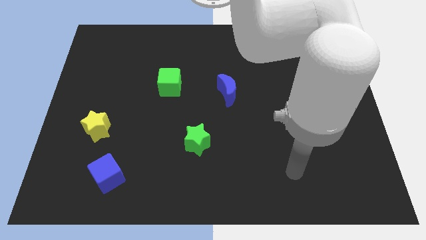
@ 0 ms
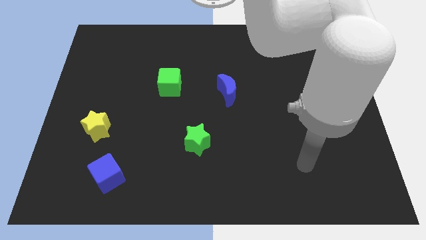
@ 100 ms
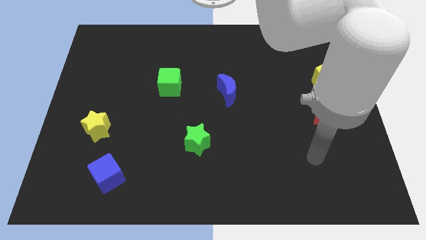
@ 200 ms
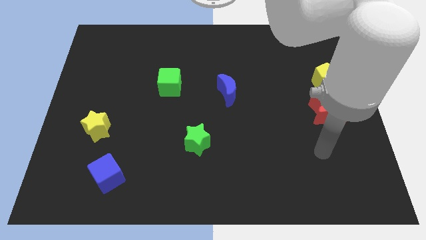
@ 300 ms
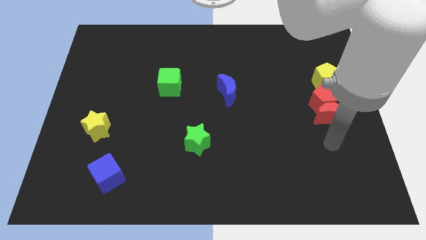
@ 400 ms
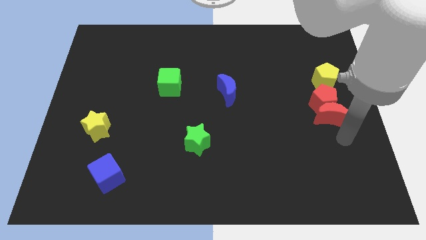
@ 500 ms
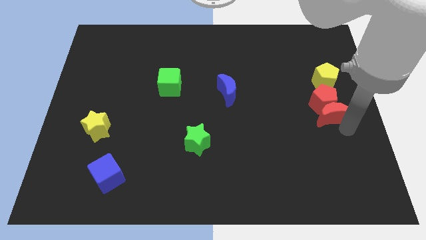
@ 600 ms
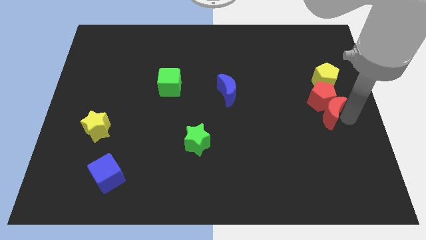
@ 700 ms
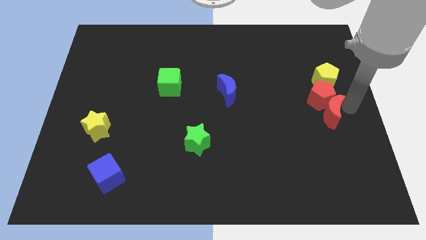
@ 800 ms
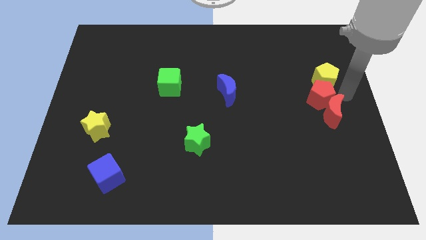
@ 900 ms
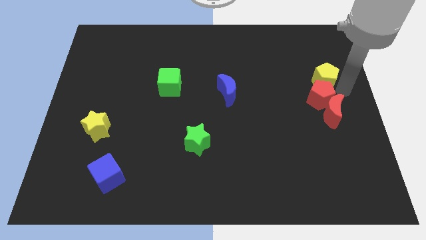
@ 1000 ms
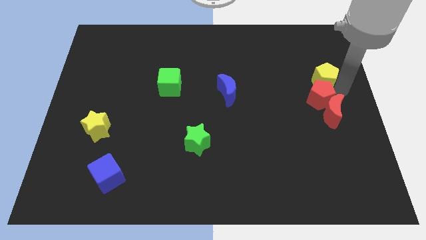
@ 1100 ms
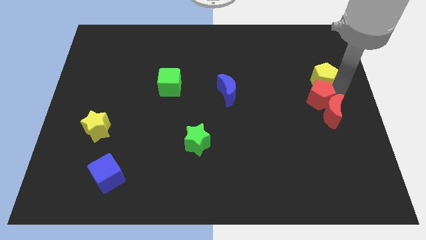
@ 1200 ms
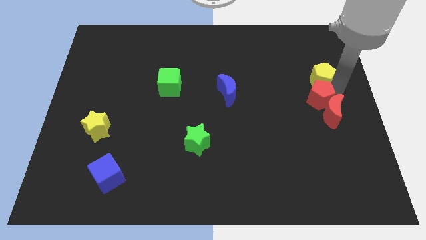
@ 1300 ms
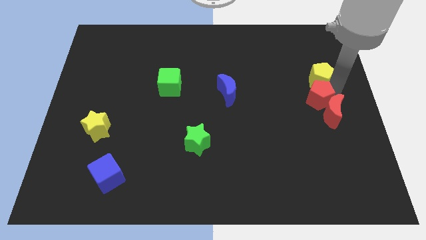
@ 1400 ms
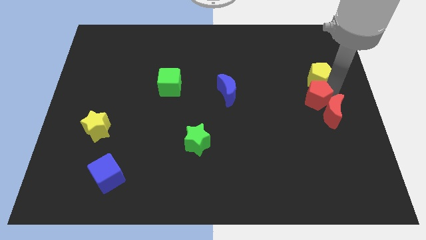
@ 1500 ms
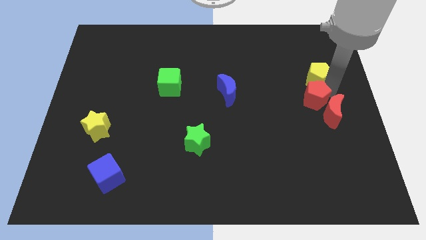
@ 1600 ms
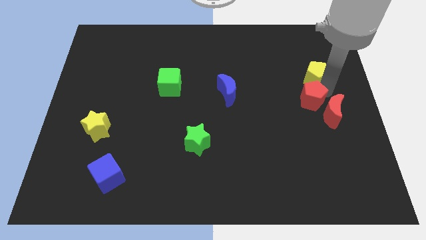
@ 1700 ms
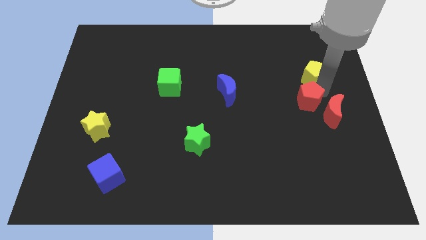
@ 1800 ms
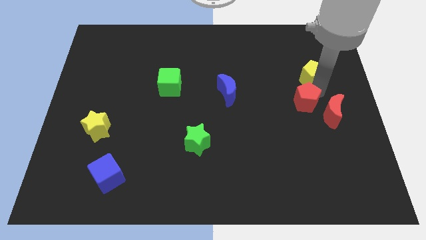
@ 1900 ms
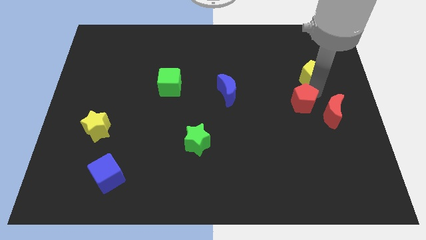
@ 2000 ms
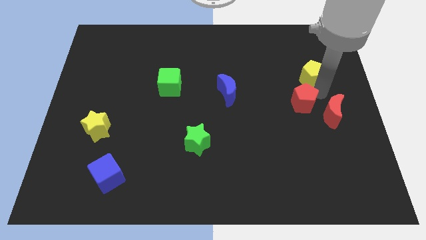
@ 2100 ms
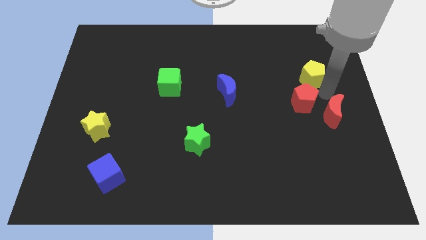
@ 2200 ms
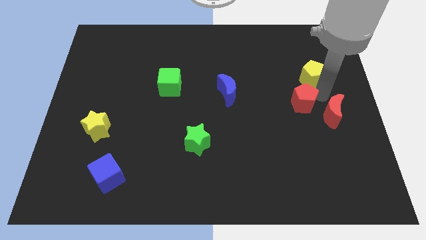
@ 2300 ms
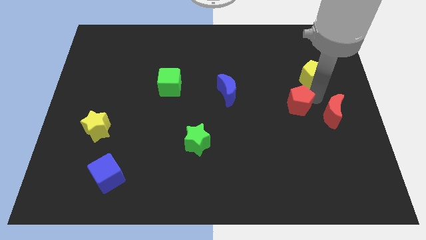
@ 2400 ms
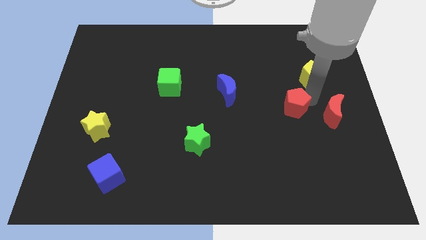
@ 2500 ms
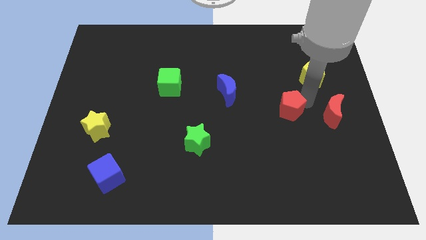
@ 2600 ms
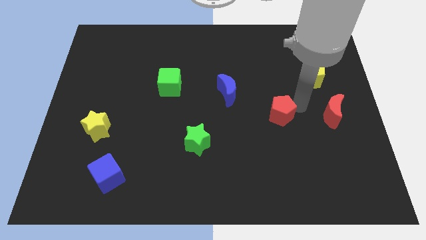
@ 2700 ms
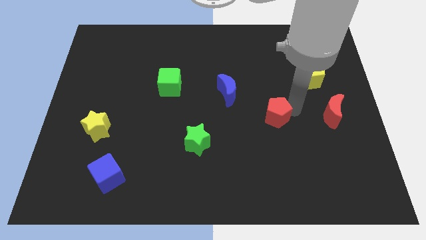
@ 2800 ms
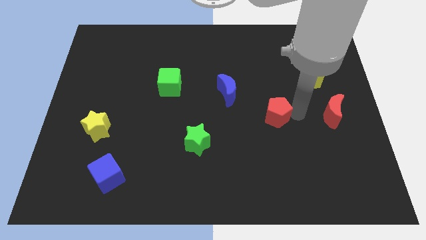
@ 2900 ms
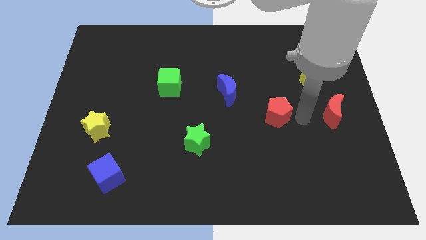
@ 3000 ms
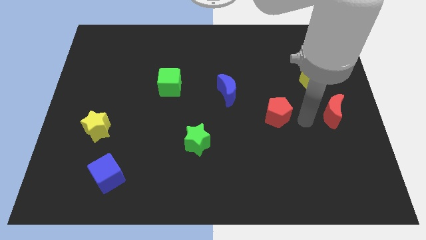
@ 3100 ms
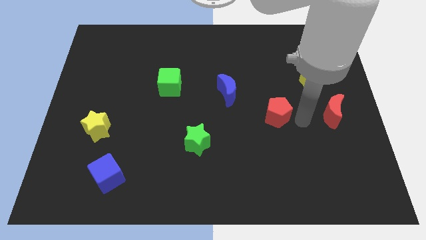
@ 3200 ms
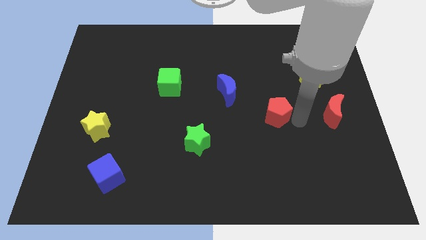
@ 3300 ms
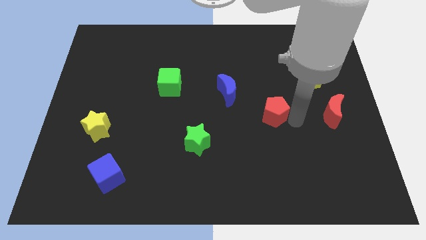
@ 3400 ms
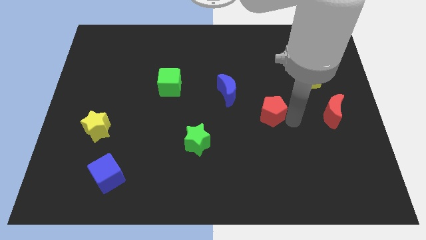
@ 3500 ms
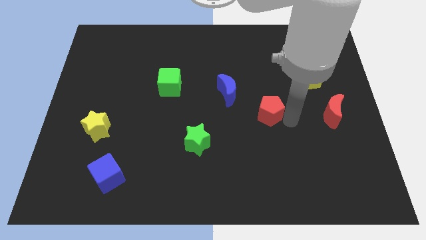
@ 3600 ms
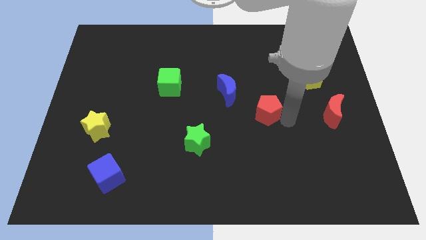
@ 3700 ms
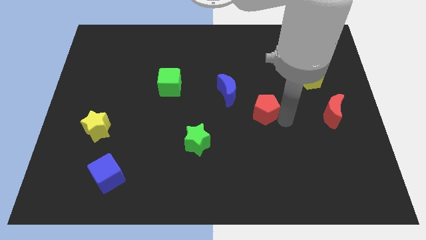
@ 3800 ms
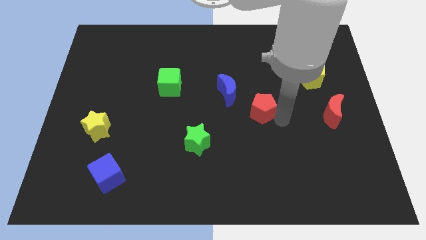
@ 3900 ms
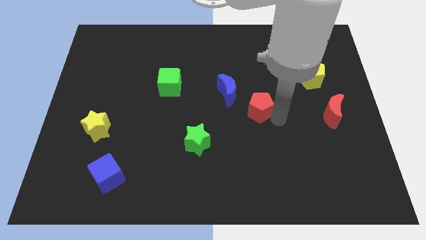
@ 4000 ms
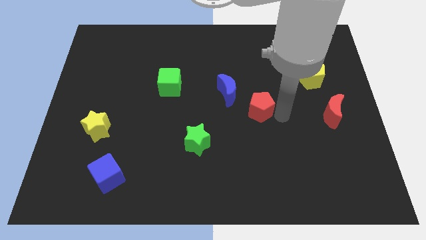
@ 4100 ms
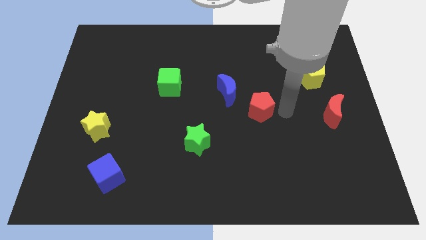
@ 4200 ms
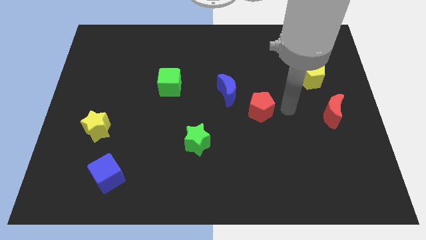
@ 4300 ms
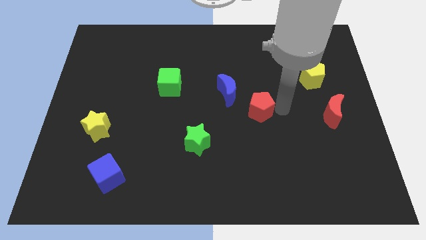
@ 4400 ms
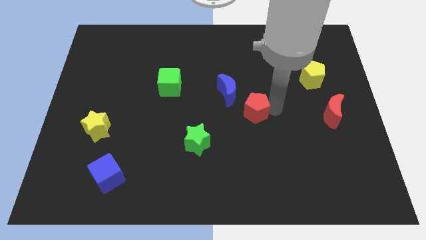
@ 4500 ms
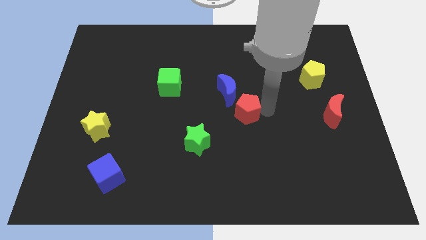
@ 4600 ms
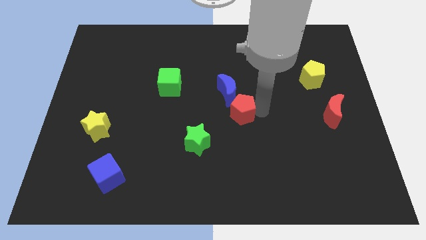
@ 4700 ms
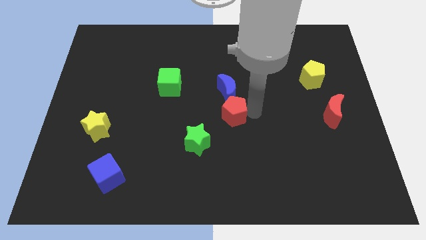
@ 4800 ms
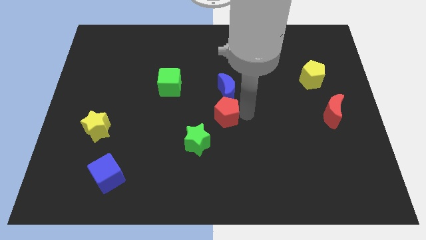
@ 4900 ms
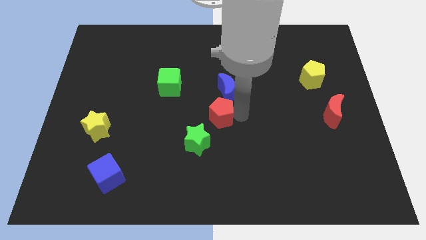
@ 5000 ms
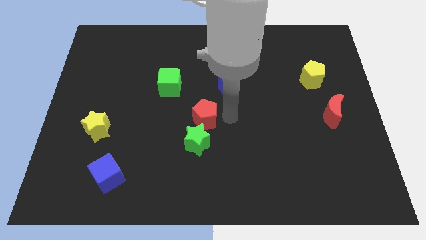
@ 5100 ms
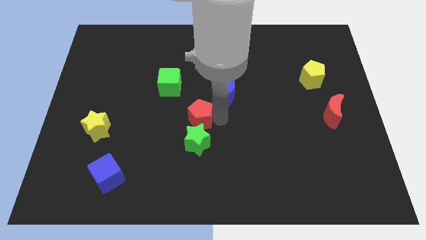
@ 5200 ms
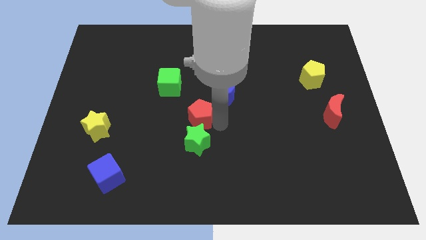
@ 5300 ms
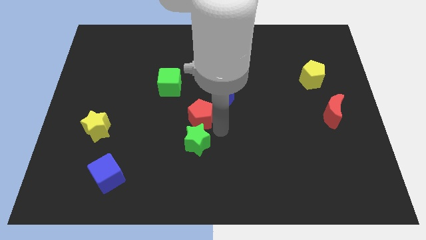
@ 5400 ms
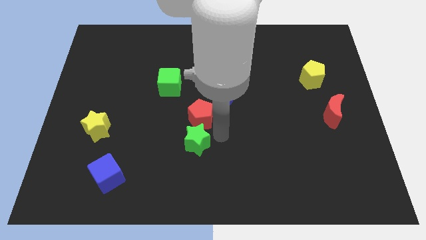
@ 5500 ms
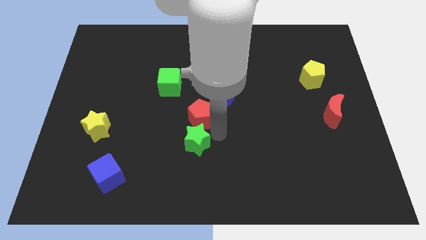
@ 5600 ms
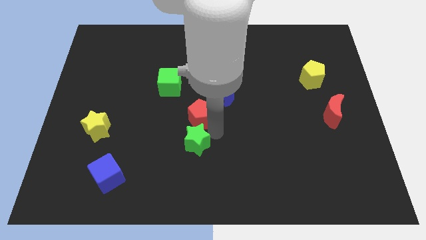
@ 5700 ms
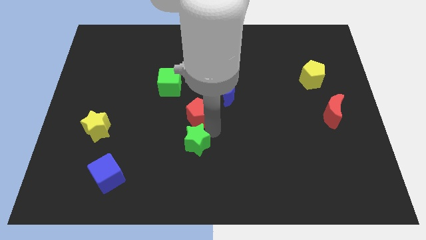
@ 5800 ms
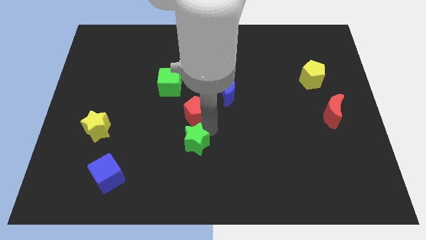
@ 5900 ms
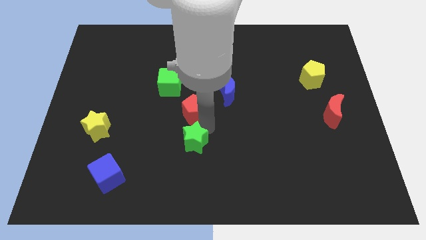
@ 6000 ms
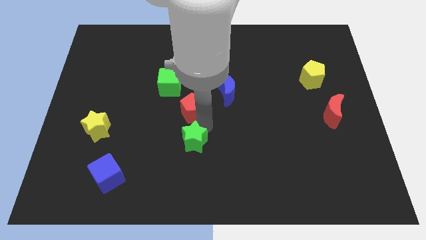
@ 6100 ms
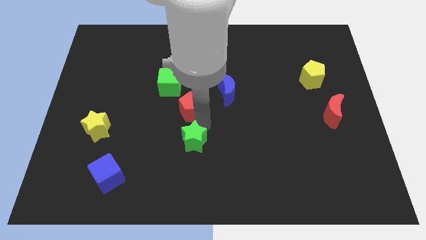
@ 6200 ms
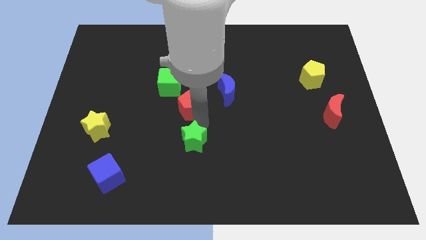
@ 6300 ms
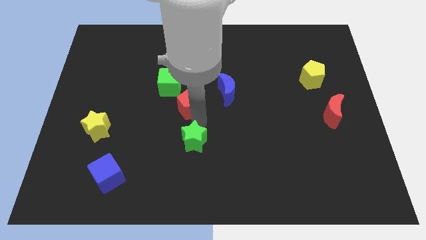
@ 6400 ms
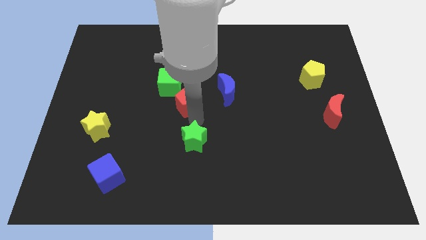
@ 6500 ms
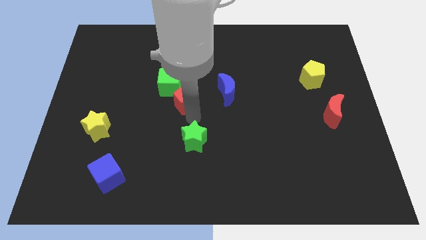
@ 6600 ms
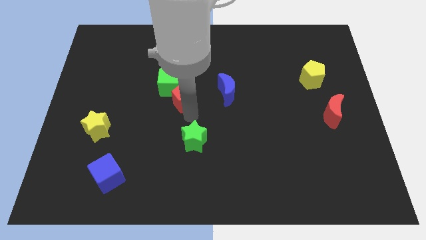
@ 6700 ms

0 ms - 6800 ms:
move the red pentagon to the green cube

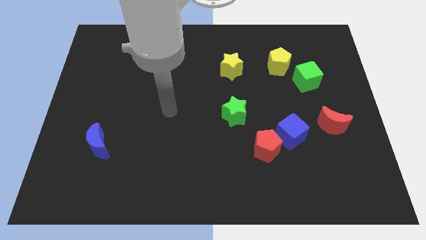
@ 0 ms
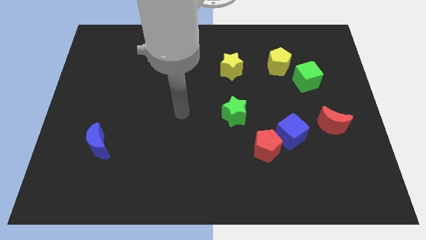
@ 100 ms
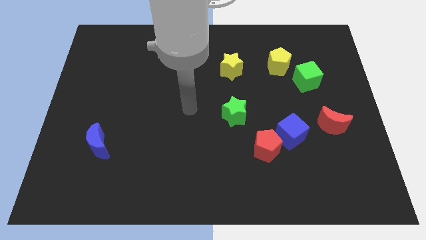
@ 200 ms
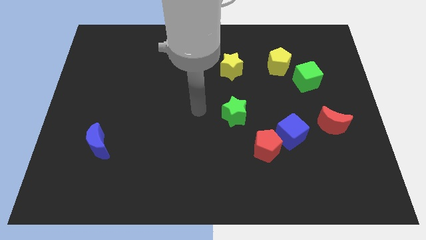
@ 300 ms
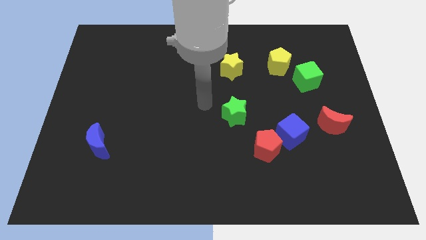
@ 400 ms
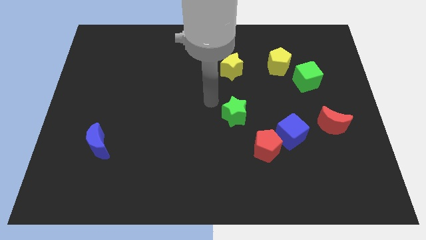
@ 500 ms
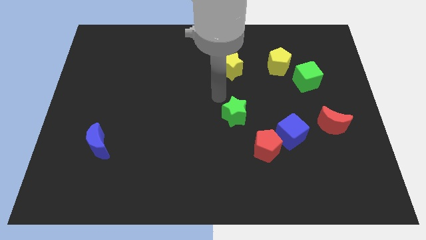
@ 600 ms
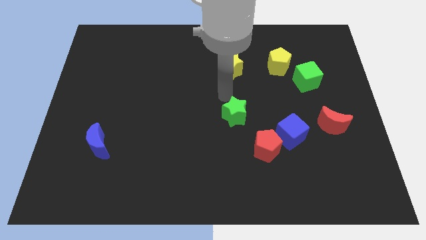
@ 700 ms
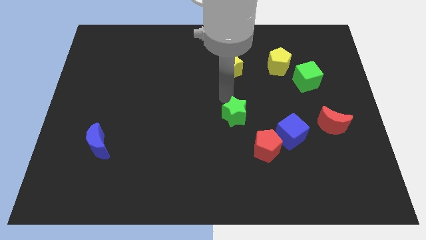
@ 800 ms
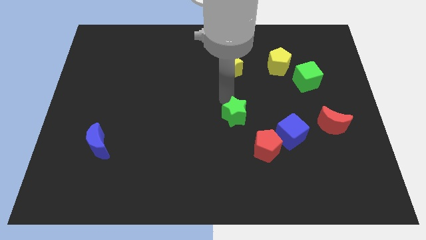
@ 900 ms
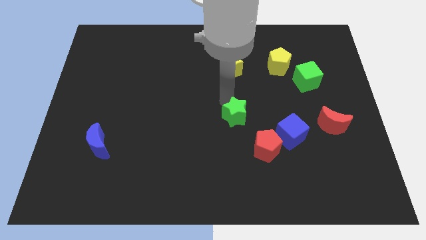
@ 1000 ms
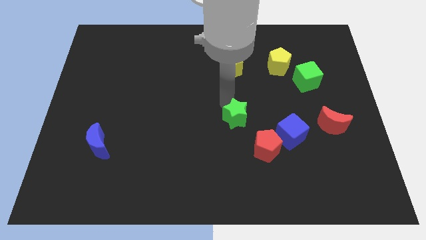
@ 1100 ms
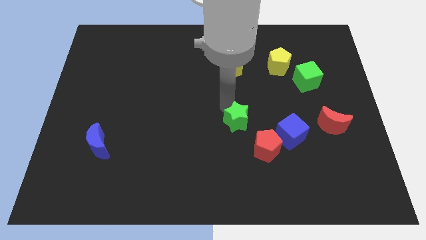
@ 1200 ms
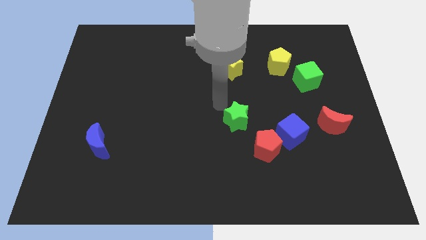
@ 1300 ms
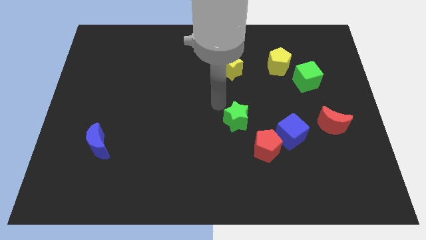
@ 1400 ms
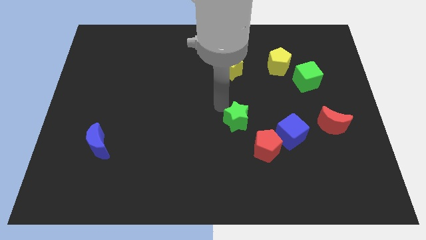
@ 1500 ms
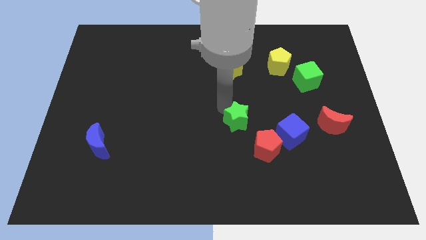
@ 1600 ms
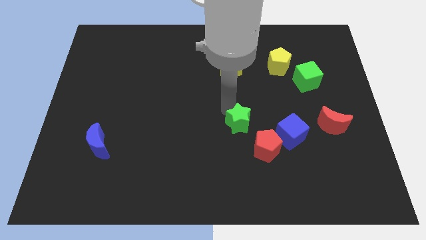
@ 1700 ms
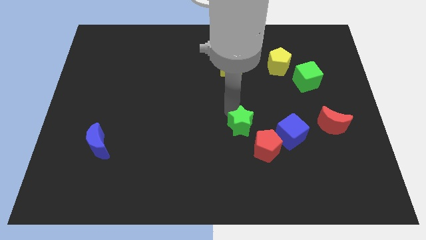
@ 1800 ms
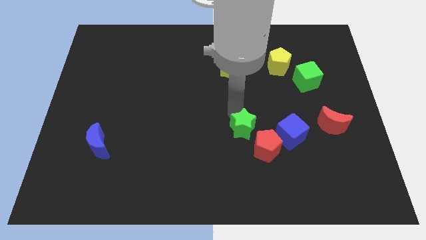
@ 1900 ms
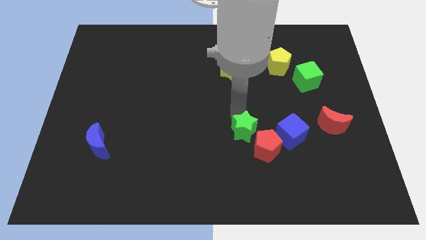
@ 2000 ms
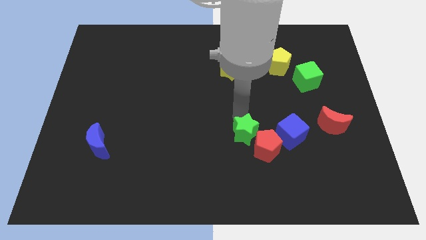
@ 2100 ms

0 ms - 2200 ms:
slide the green star to the red pentagon
